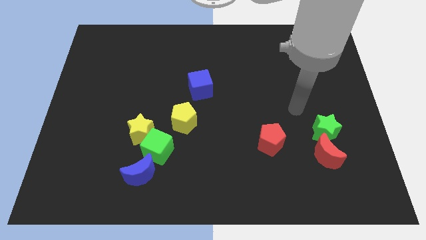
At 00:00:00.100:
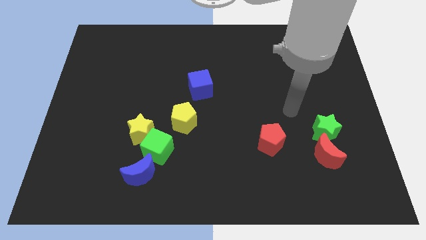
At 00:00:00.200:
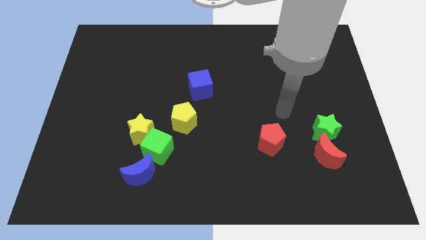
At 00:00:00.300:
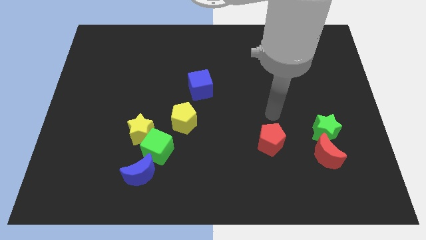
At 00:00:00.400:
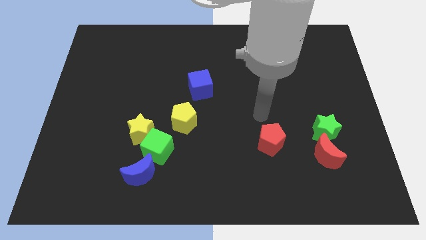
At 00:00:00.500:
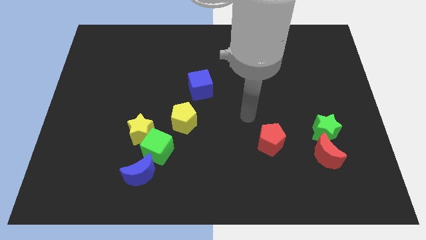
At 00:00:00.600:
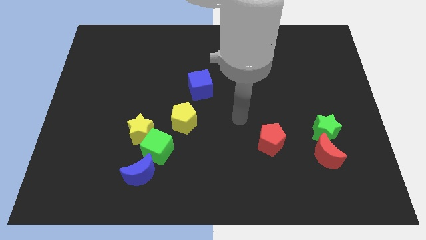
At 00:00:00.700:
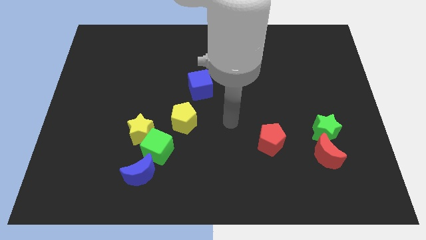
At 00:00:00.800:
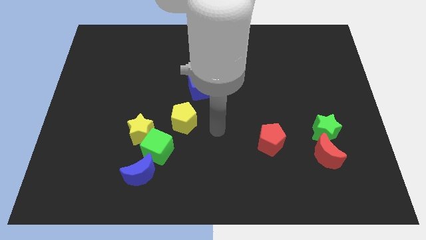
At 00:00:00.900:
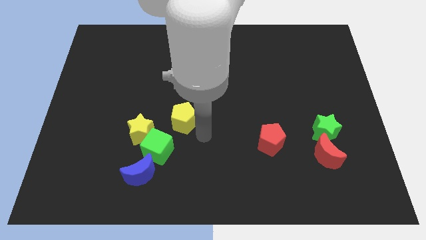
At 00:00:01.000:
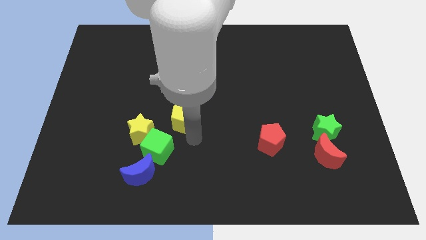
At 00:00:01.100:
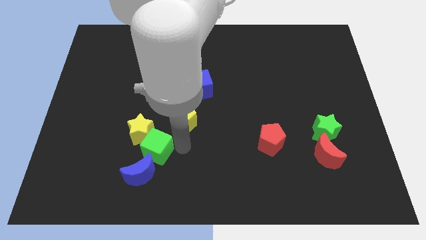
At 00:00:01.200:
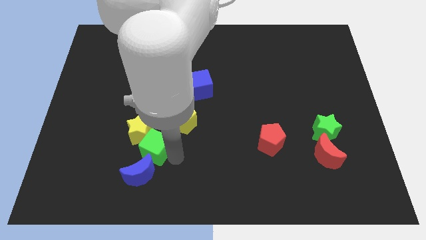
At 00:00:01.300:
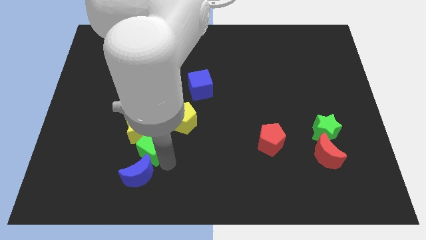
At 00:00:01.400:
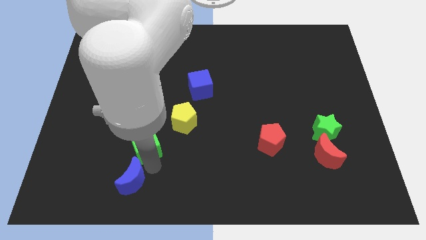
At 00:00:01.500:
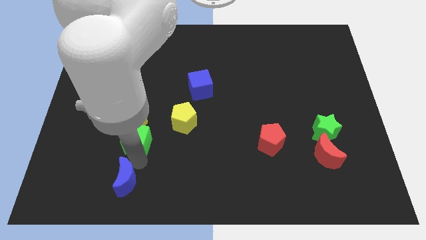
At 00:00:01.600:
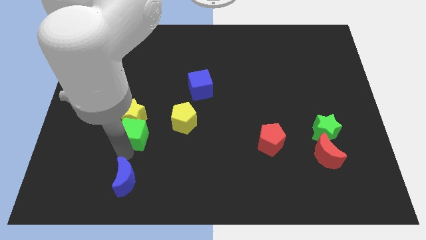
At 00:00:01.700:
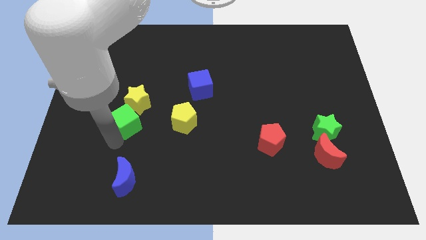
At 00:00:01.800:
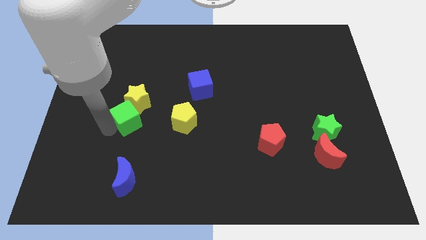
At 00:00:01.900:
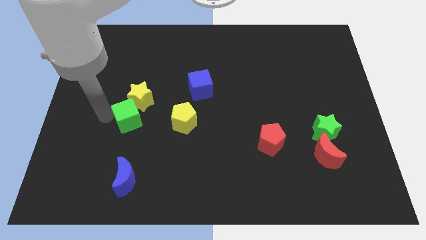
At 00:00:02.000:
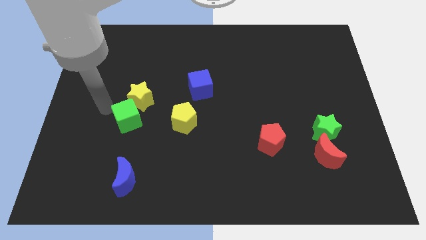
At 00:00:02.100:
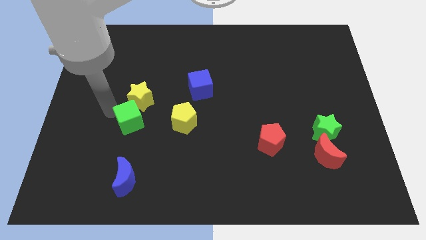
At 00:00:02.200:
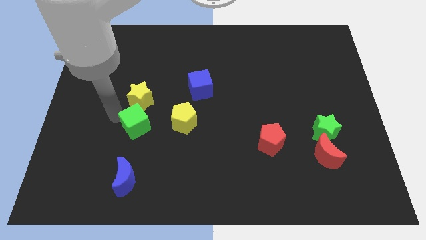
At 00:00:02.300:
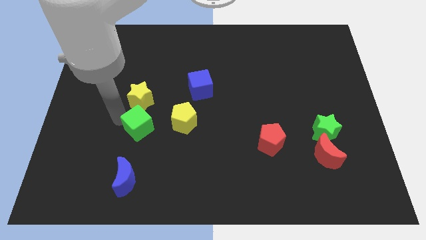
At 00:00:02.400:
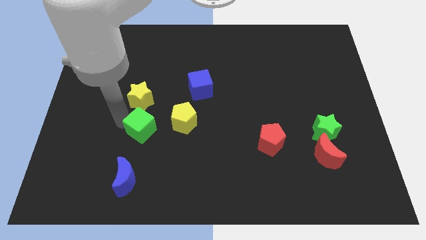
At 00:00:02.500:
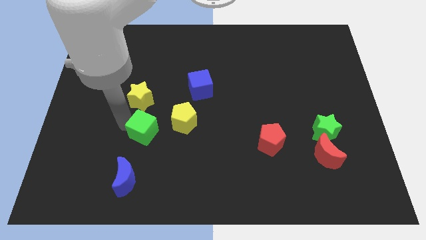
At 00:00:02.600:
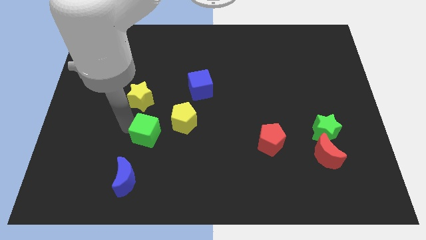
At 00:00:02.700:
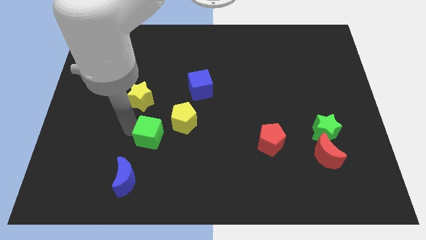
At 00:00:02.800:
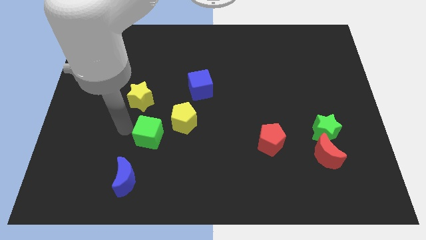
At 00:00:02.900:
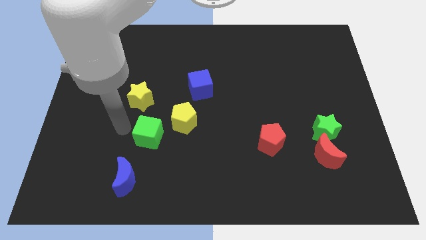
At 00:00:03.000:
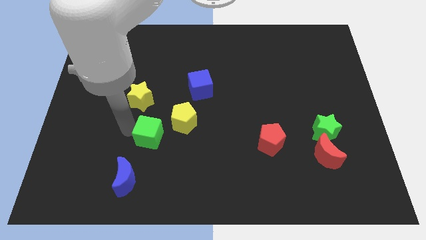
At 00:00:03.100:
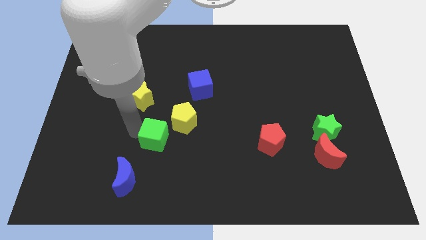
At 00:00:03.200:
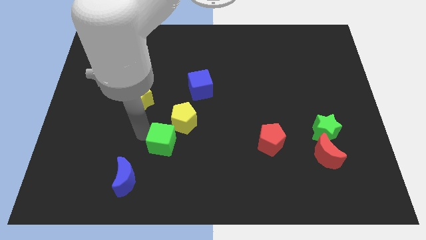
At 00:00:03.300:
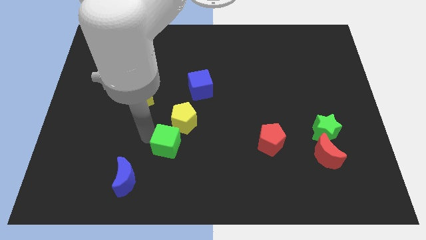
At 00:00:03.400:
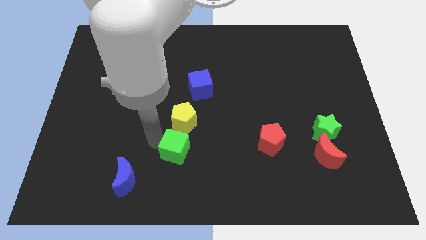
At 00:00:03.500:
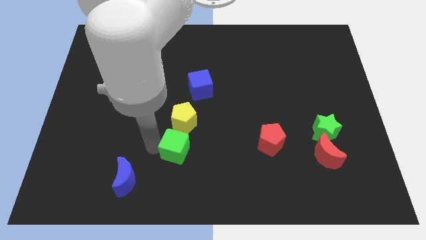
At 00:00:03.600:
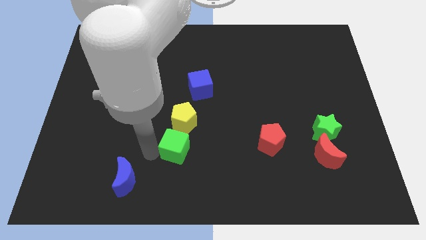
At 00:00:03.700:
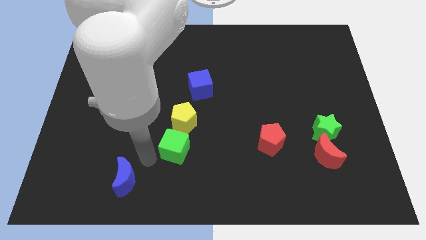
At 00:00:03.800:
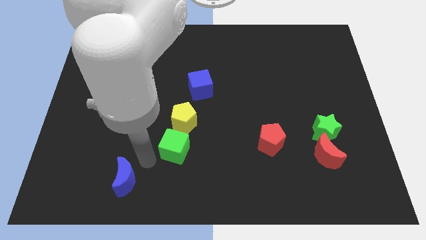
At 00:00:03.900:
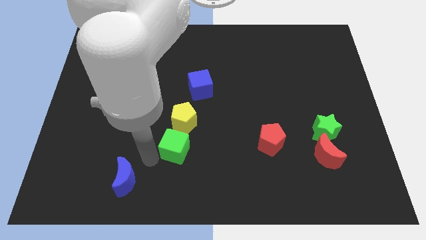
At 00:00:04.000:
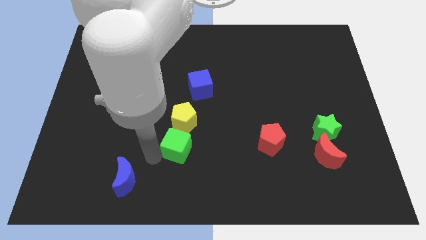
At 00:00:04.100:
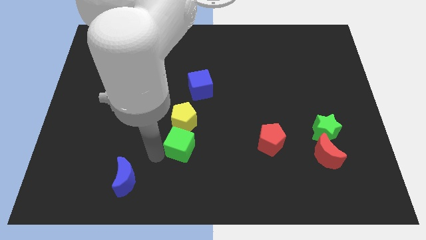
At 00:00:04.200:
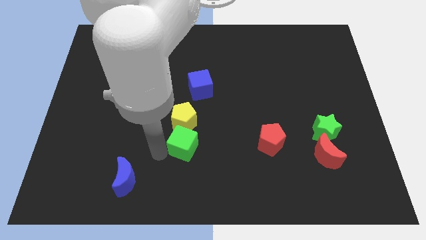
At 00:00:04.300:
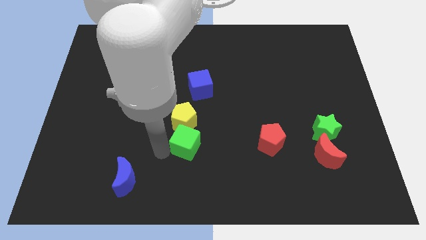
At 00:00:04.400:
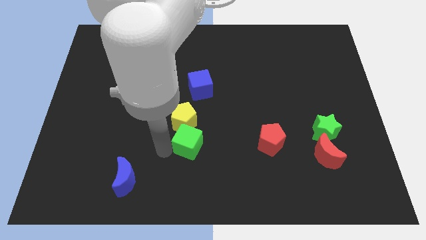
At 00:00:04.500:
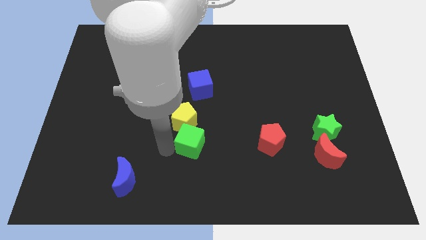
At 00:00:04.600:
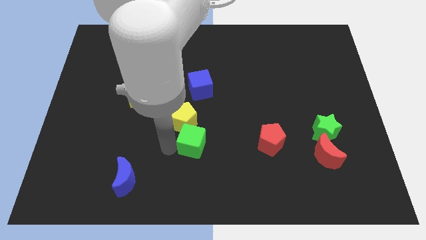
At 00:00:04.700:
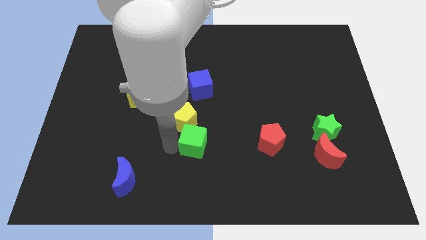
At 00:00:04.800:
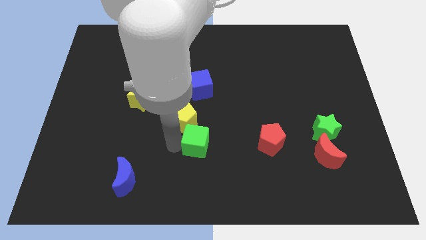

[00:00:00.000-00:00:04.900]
push the green cube to the center

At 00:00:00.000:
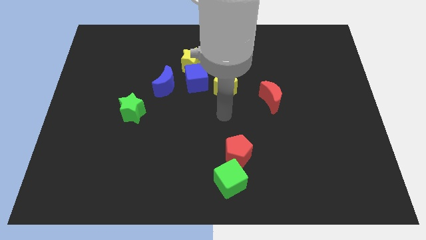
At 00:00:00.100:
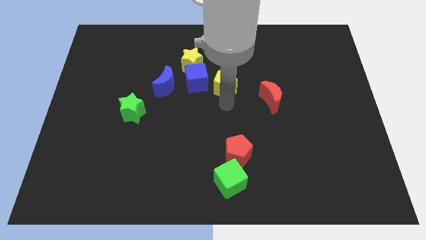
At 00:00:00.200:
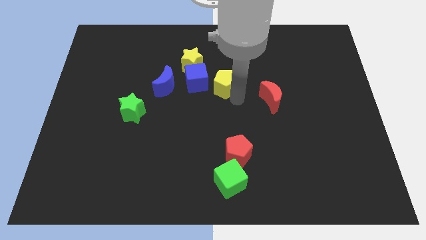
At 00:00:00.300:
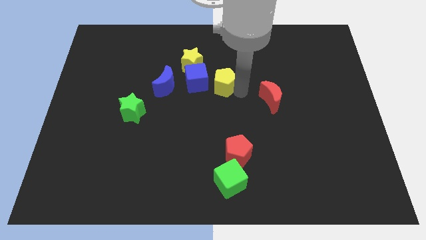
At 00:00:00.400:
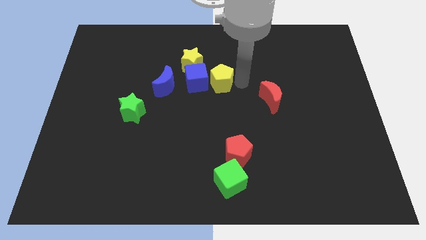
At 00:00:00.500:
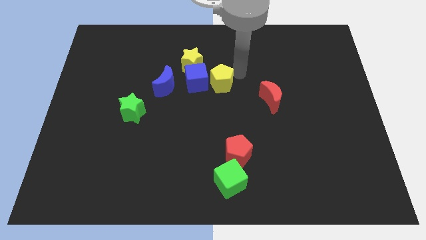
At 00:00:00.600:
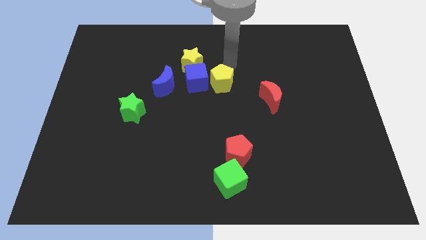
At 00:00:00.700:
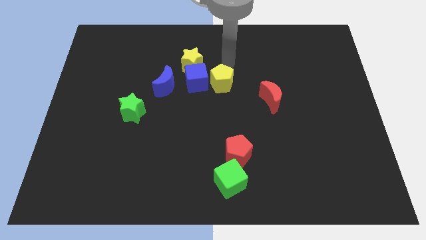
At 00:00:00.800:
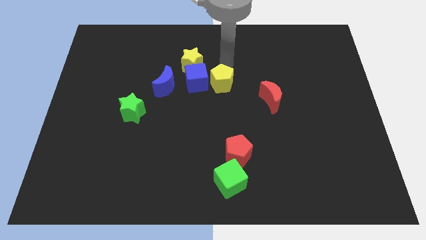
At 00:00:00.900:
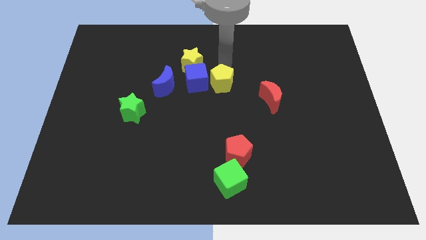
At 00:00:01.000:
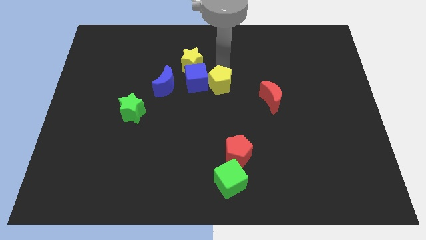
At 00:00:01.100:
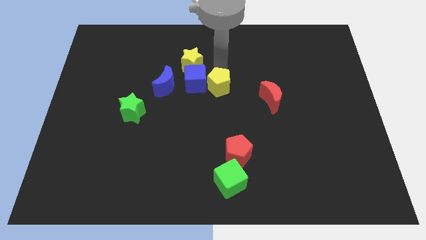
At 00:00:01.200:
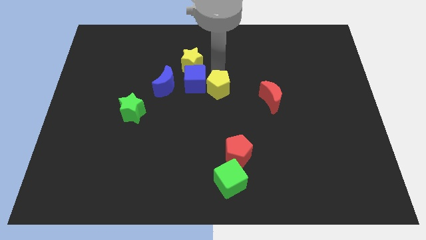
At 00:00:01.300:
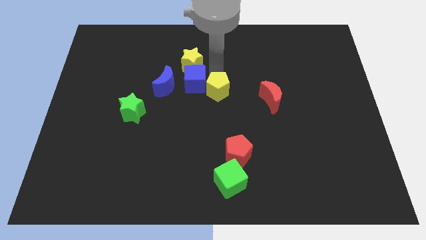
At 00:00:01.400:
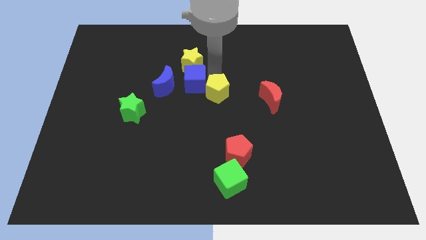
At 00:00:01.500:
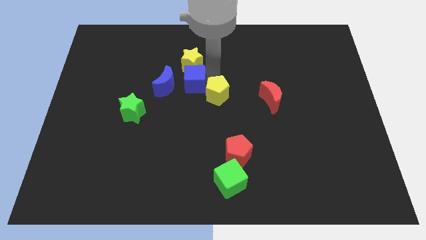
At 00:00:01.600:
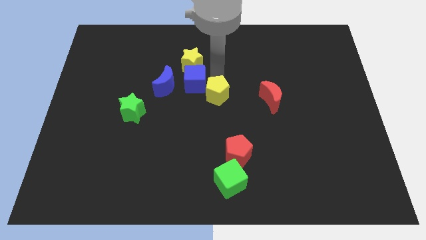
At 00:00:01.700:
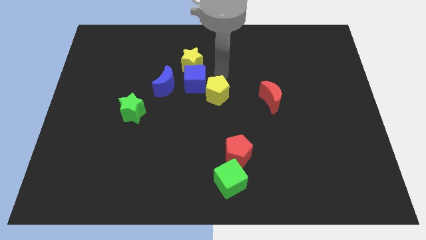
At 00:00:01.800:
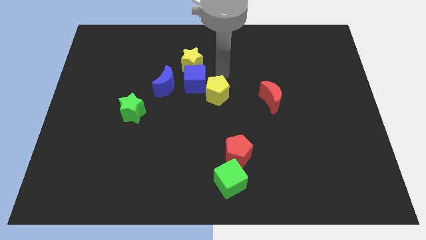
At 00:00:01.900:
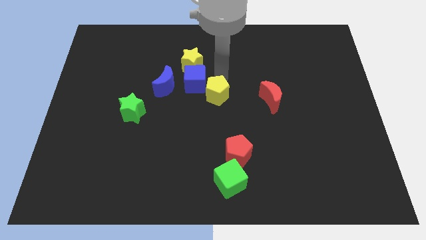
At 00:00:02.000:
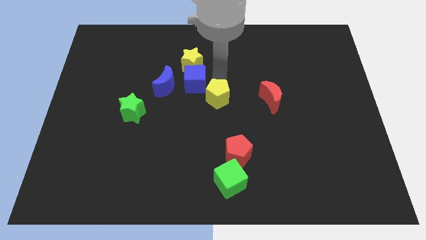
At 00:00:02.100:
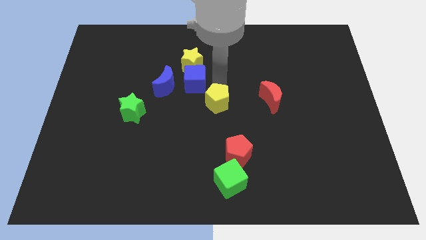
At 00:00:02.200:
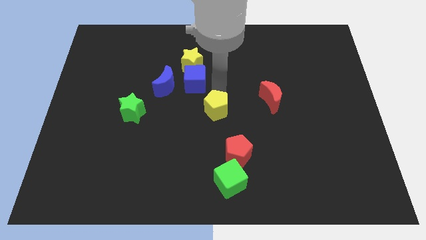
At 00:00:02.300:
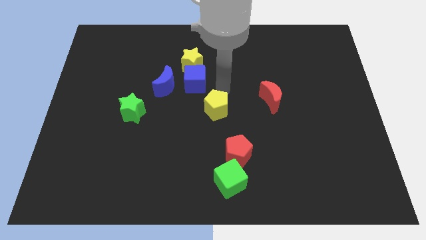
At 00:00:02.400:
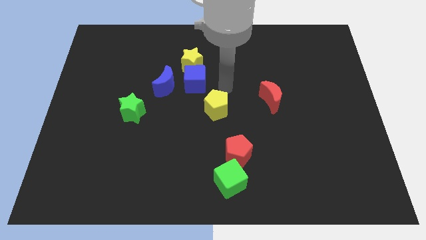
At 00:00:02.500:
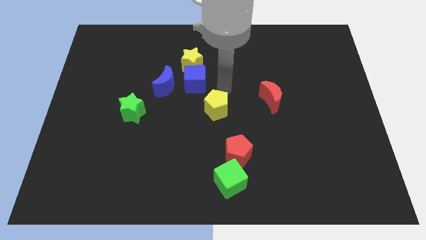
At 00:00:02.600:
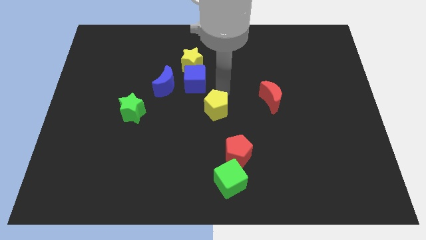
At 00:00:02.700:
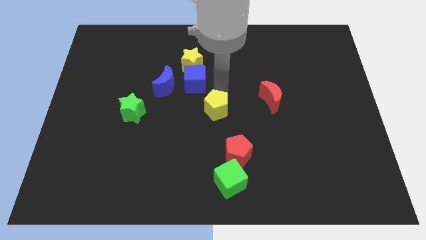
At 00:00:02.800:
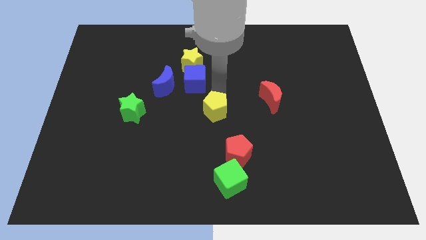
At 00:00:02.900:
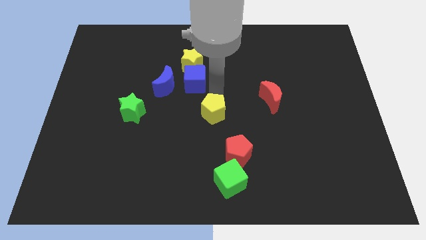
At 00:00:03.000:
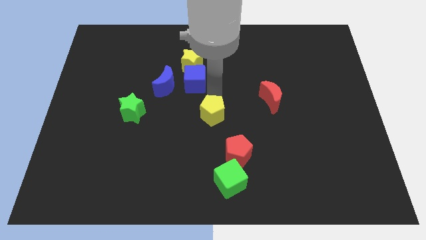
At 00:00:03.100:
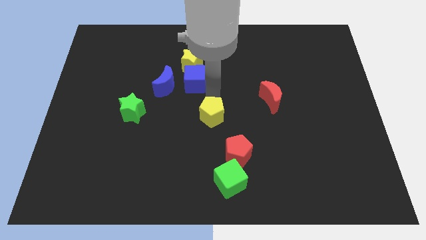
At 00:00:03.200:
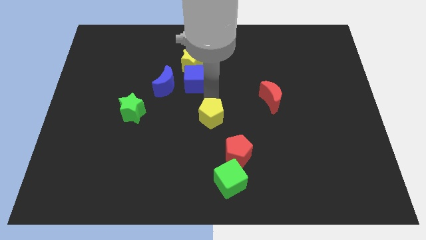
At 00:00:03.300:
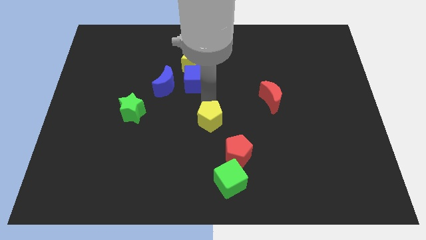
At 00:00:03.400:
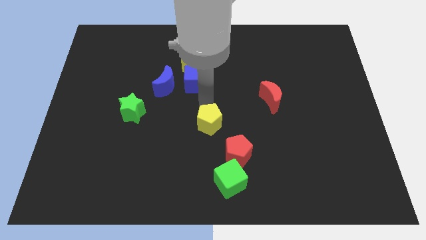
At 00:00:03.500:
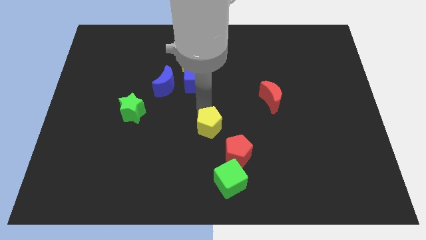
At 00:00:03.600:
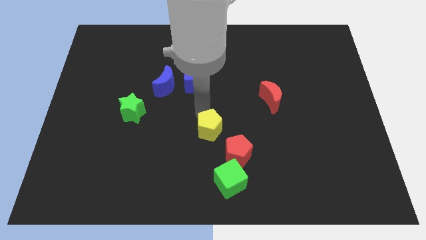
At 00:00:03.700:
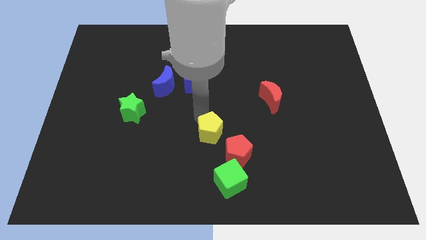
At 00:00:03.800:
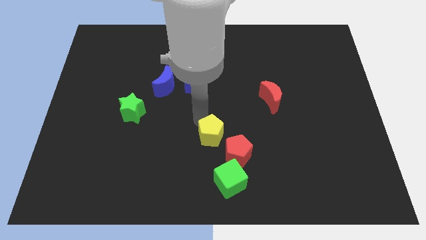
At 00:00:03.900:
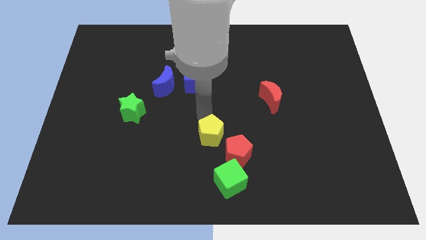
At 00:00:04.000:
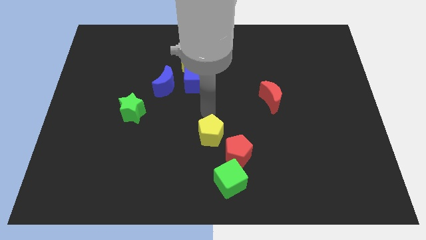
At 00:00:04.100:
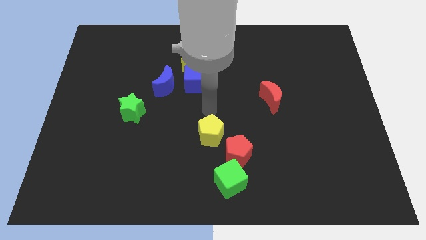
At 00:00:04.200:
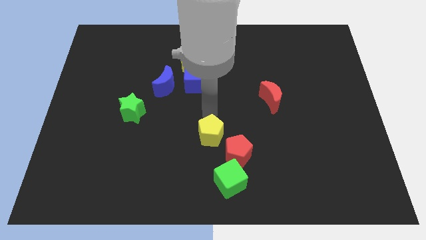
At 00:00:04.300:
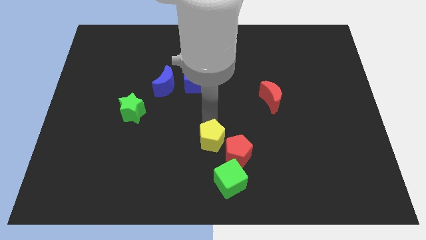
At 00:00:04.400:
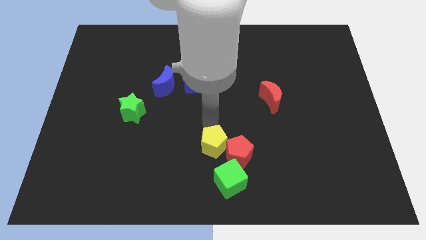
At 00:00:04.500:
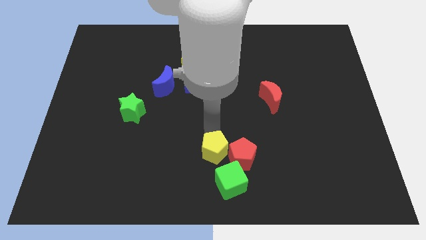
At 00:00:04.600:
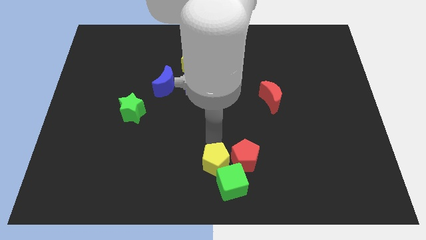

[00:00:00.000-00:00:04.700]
push the yellow pentagon to the bottom side
